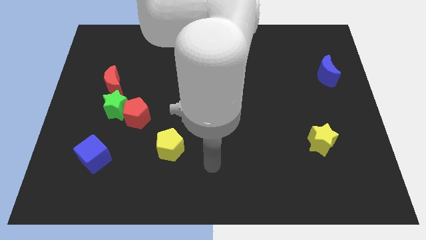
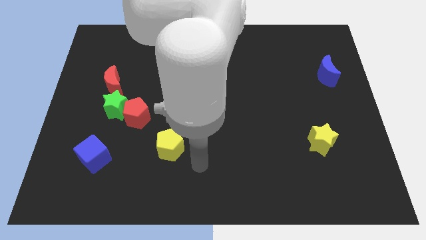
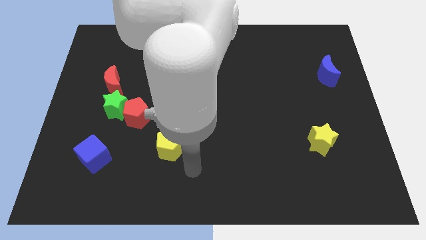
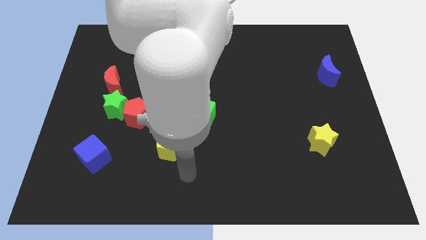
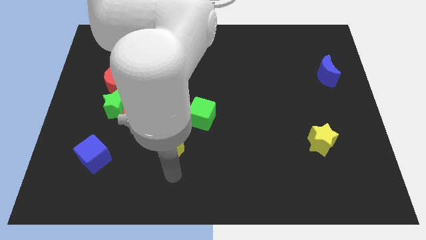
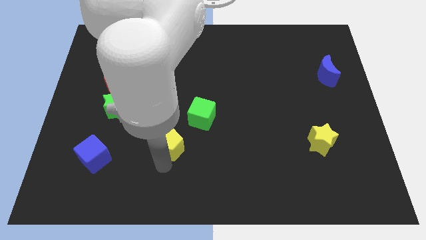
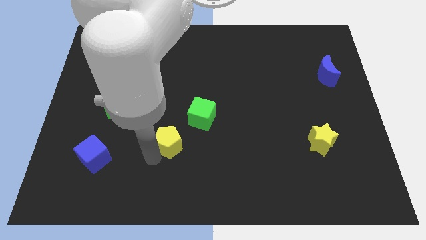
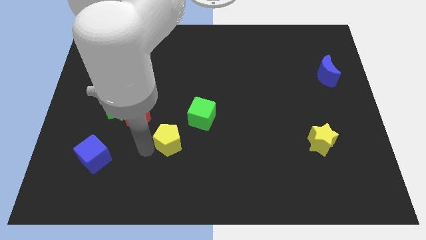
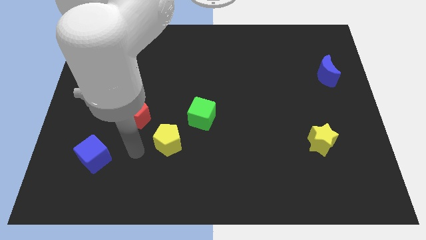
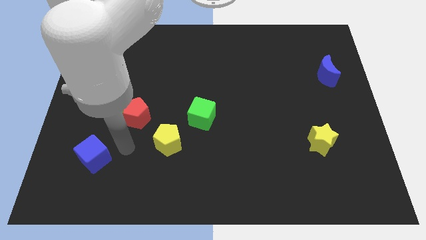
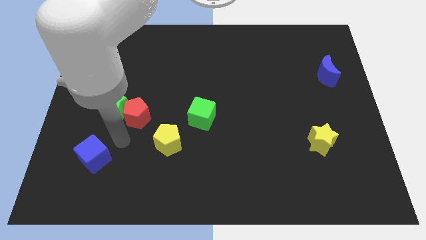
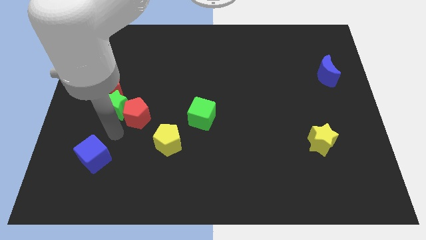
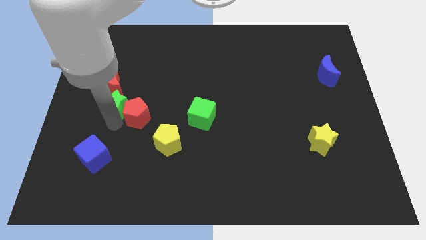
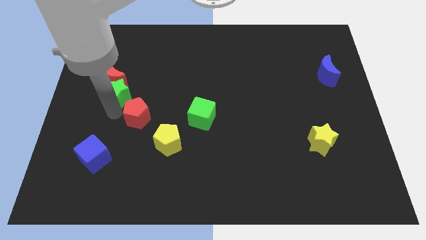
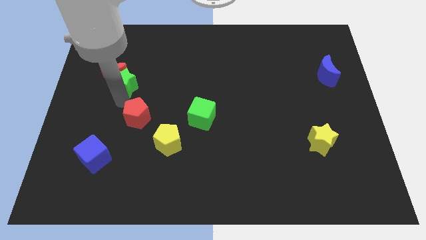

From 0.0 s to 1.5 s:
separate the red pentagon from the green star

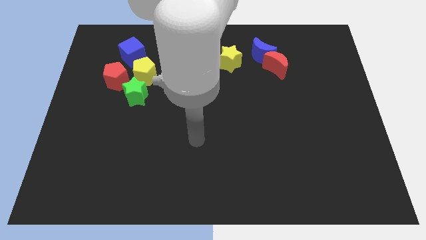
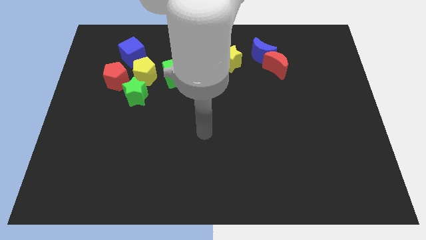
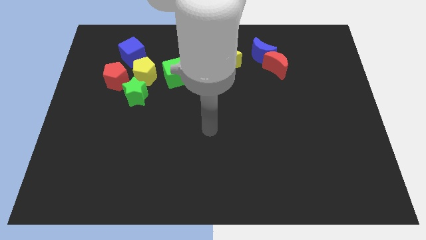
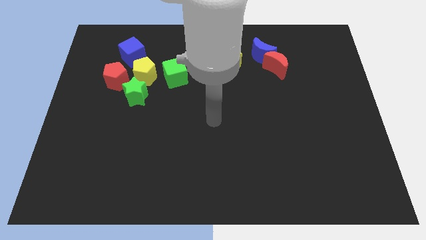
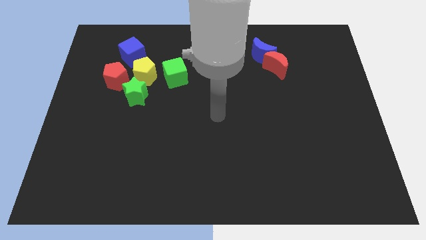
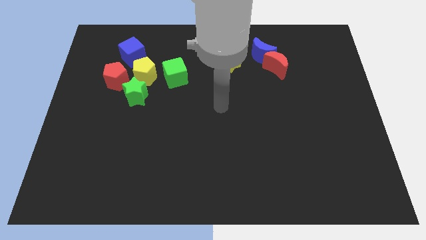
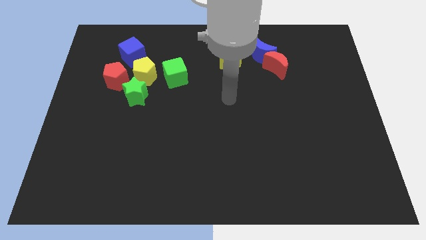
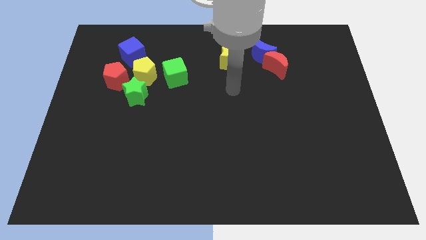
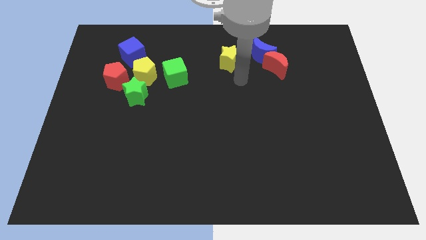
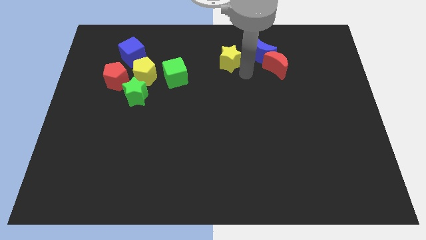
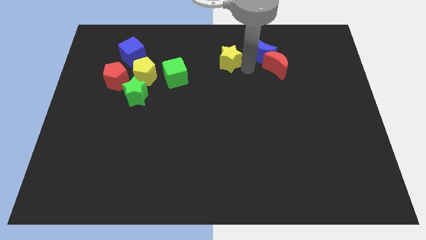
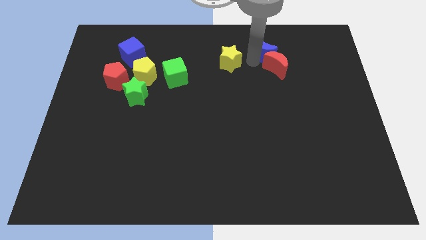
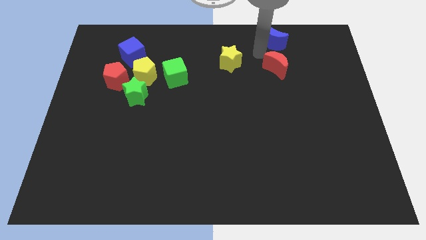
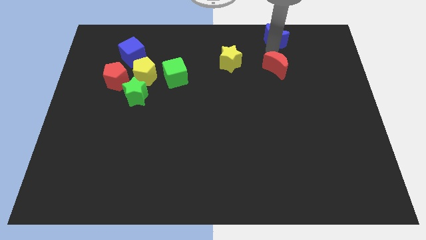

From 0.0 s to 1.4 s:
pull the red moon apart from the blue moon

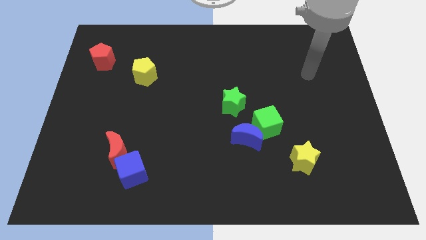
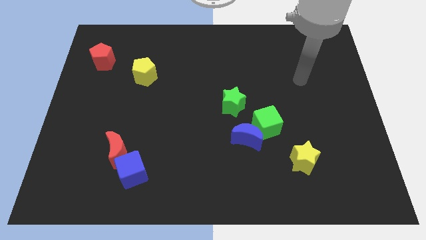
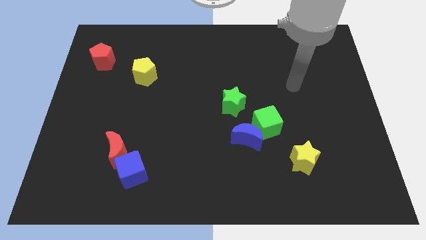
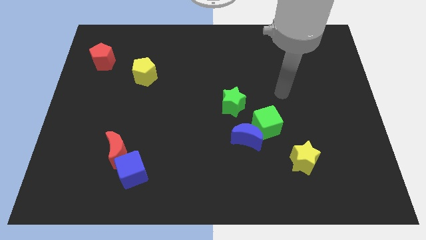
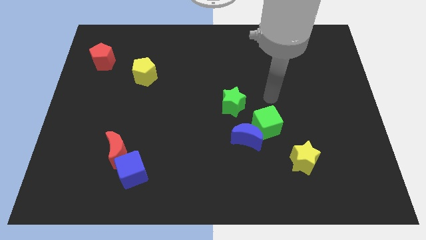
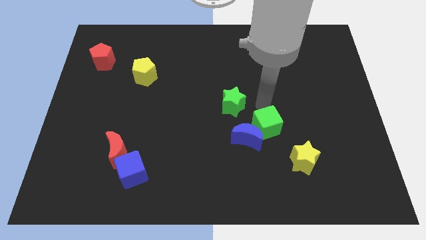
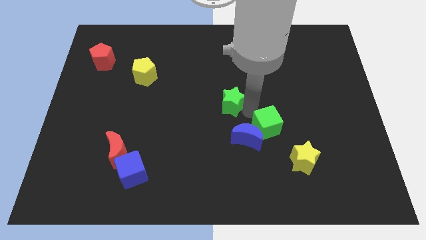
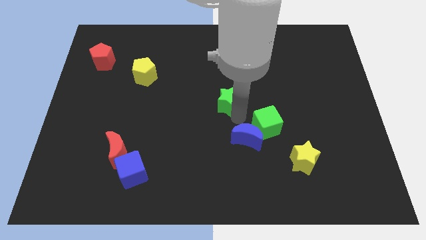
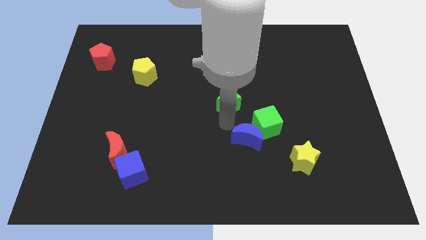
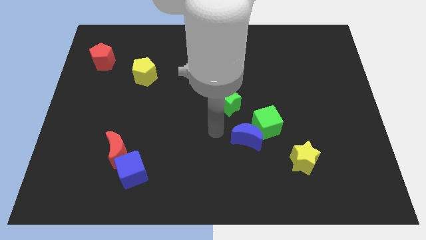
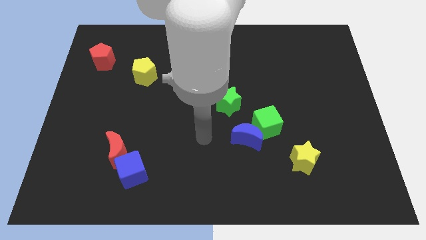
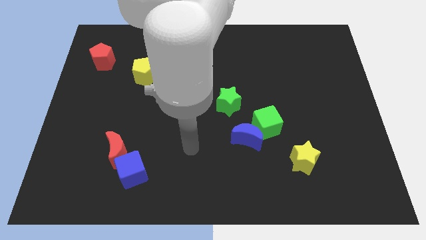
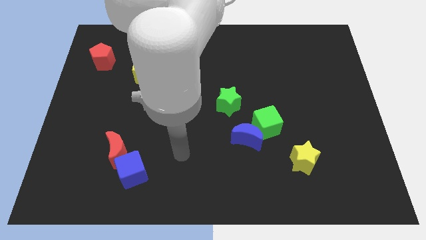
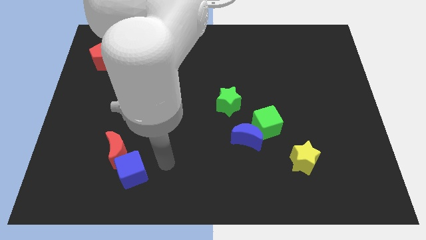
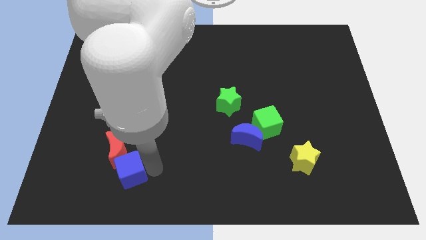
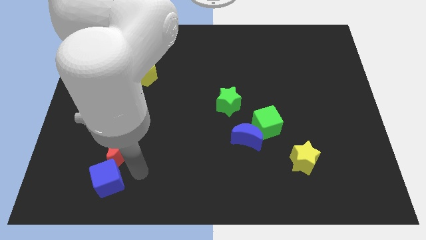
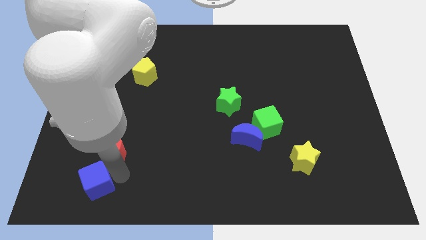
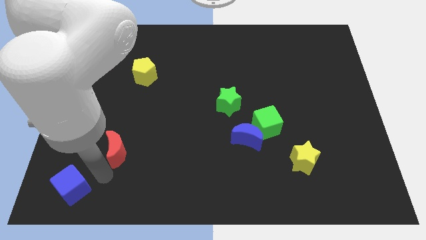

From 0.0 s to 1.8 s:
separate the red moon from the blue cube

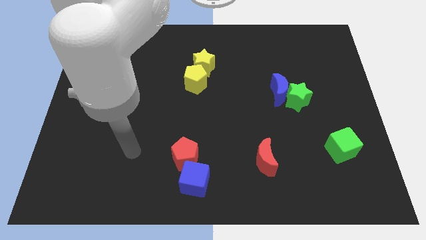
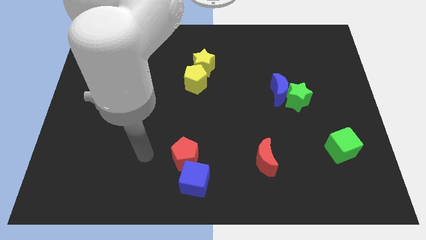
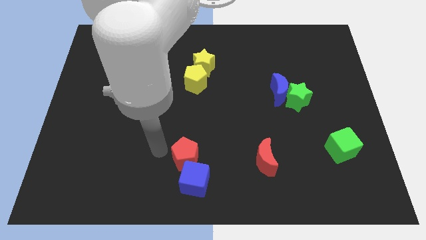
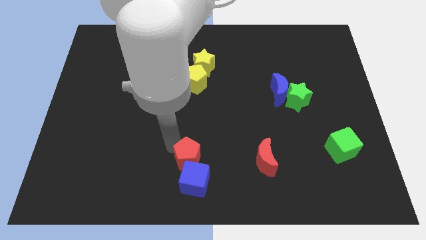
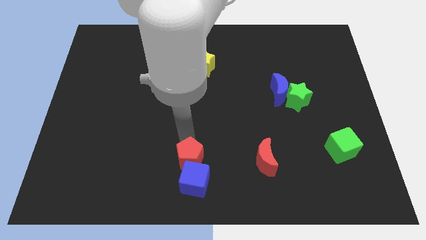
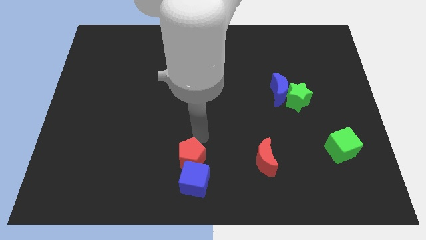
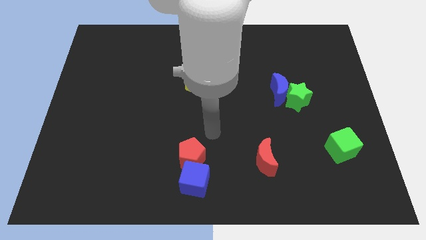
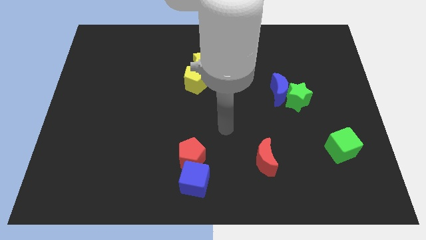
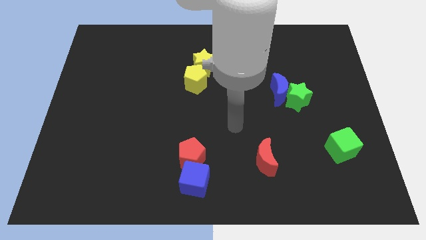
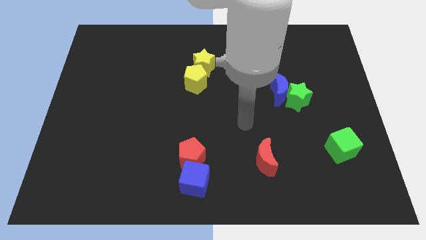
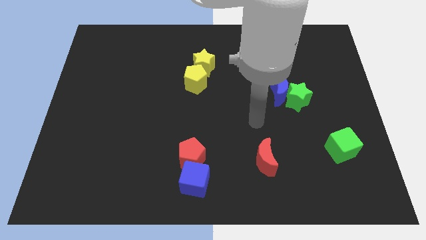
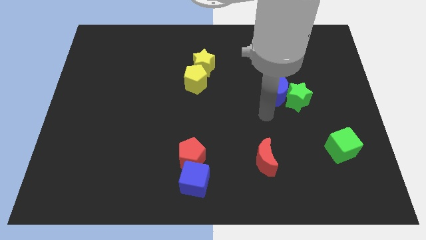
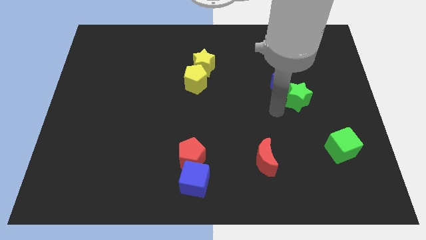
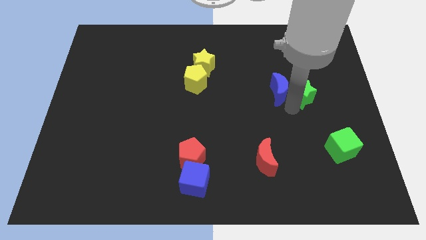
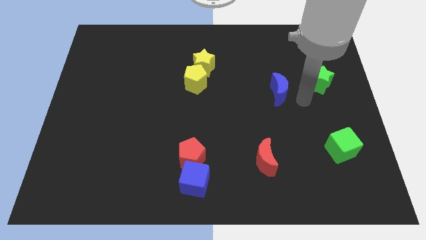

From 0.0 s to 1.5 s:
separate the blue moon from the green star

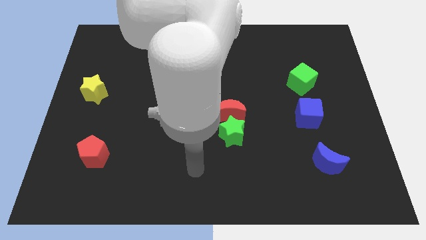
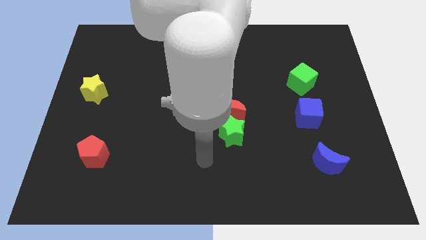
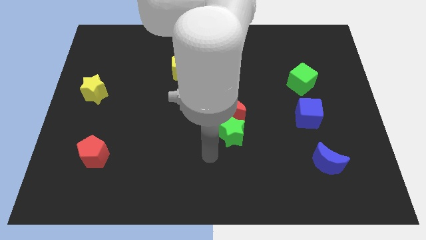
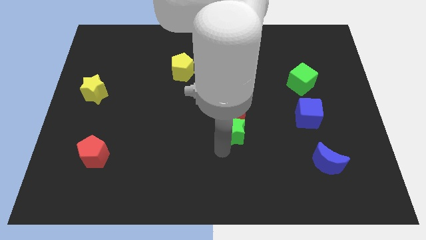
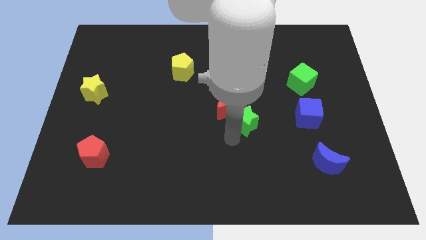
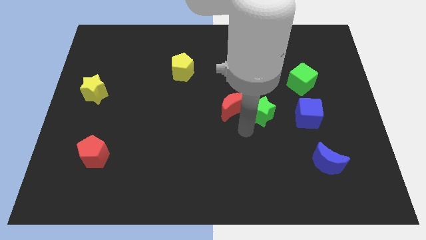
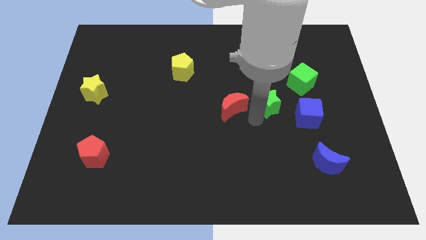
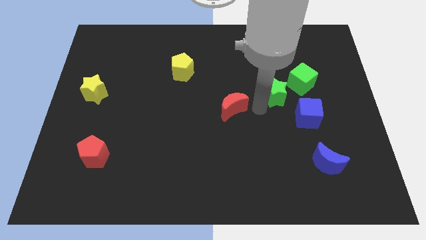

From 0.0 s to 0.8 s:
pull the red moon apart from the green star

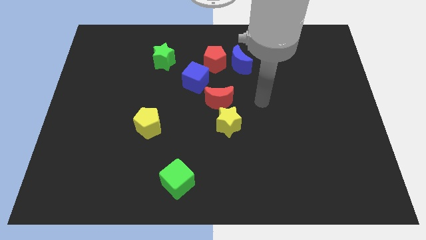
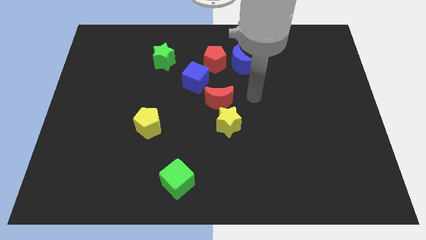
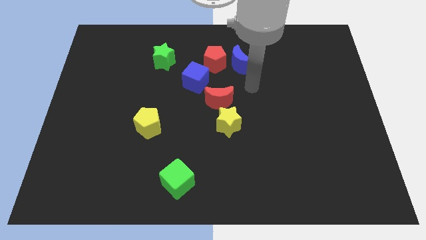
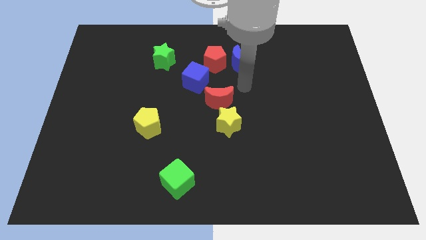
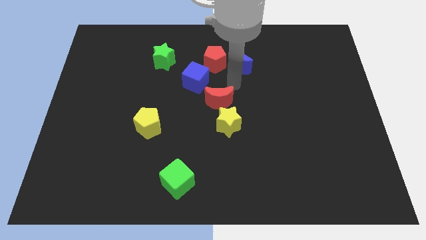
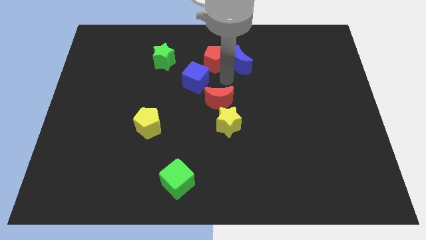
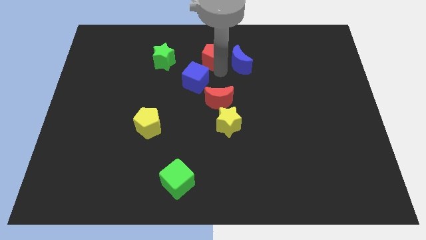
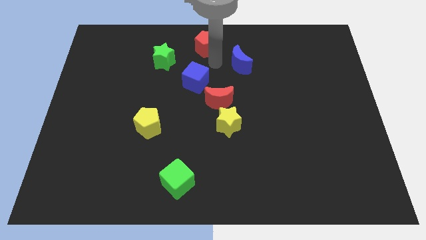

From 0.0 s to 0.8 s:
pull the blue moon apart from the red pentagon

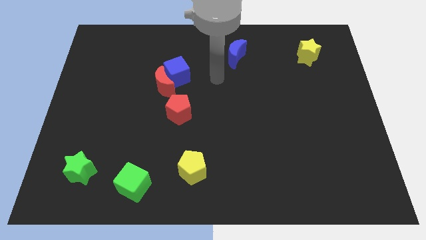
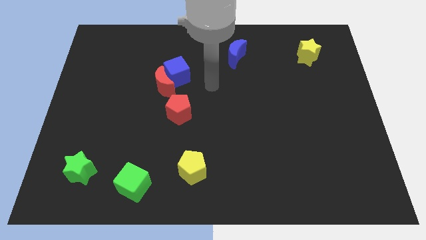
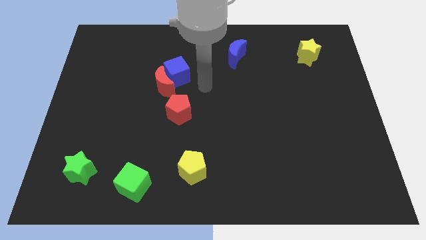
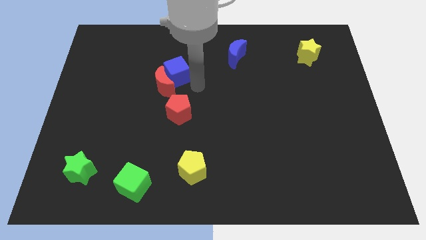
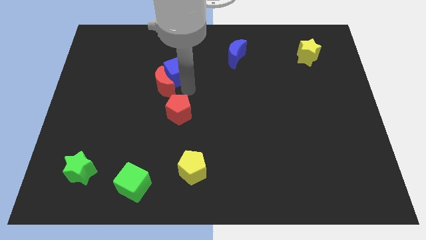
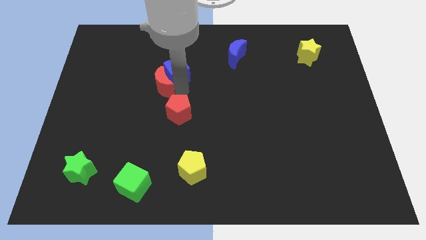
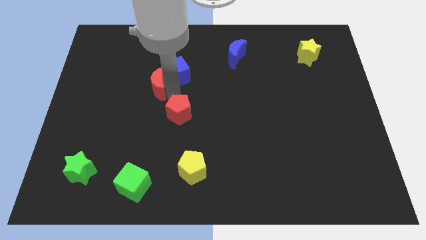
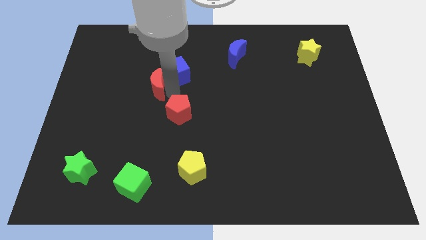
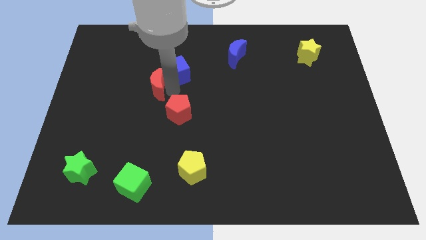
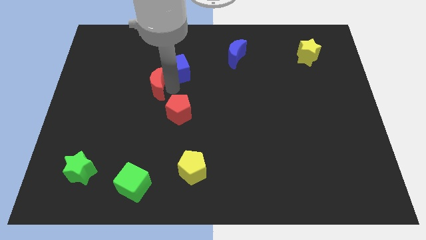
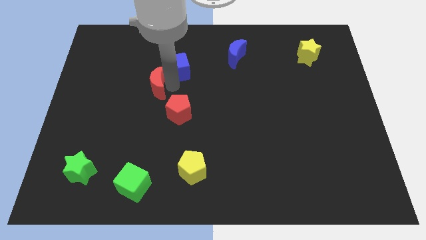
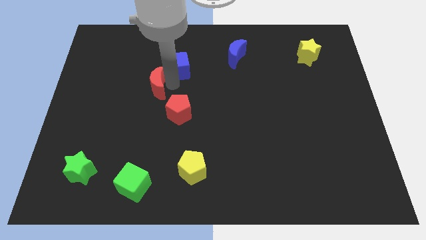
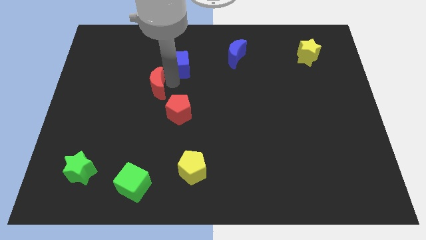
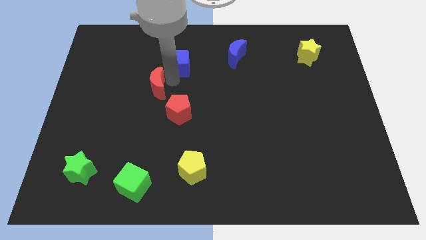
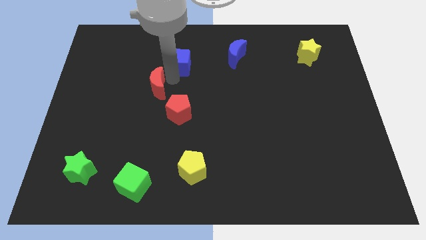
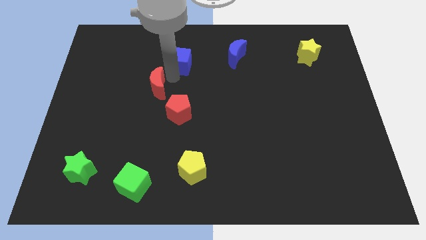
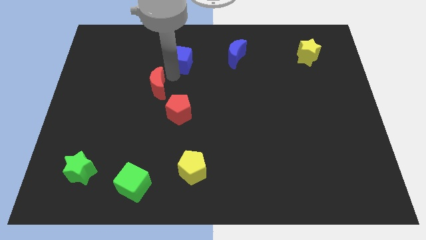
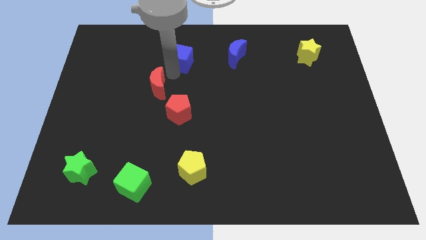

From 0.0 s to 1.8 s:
separate the blue cube from the red moon
